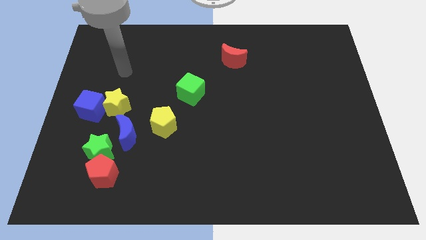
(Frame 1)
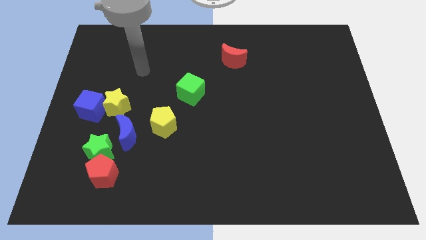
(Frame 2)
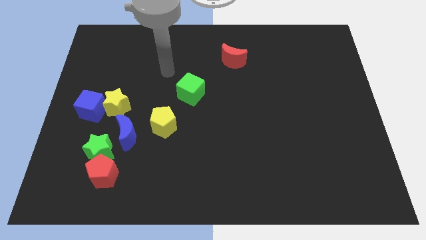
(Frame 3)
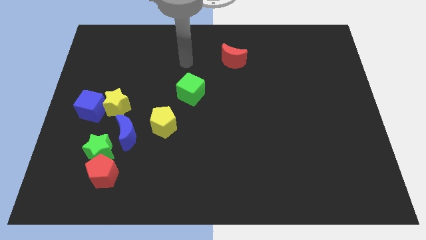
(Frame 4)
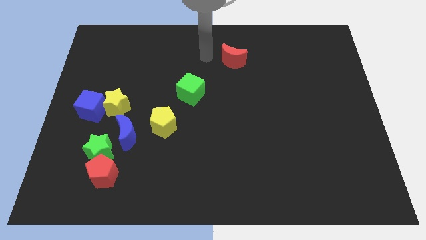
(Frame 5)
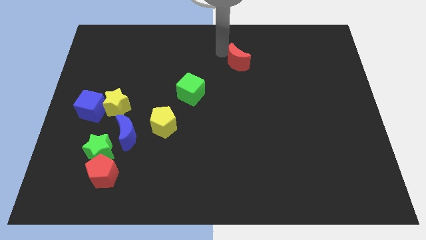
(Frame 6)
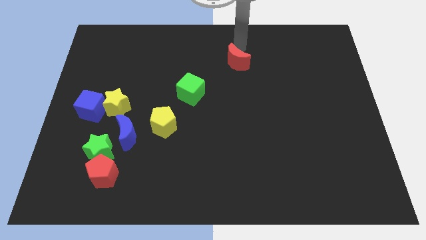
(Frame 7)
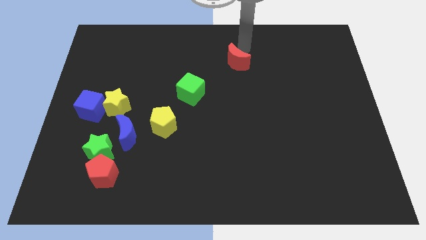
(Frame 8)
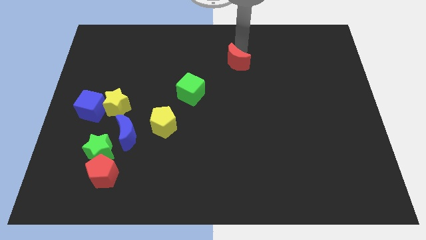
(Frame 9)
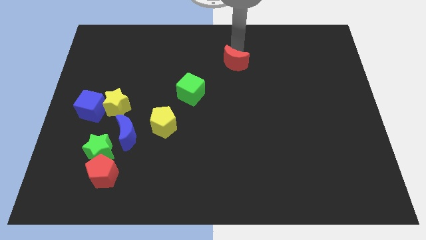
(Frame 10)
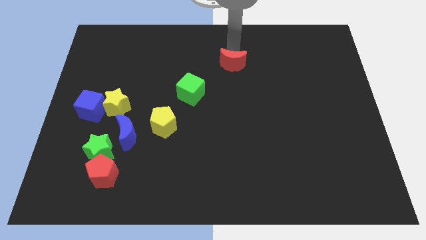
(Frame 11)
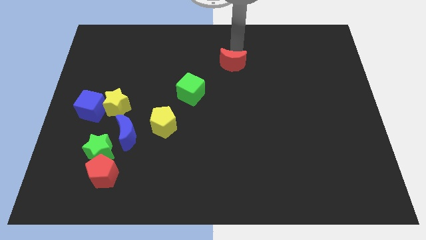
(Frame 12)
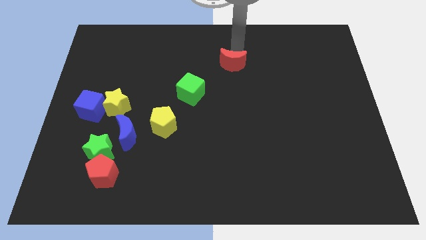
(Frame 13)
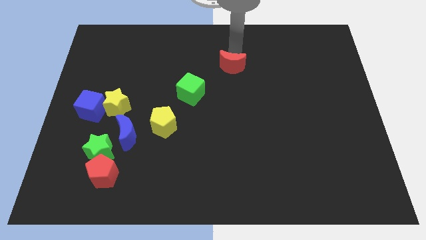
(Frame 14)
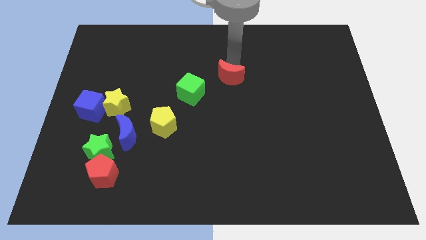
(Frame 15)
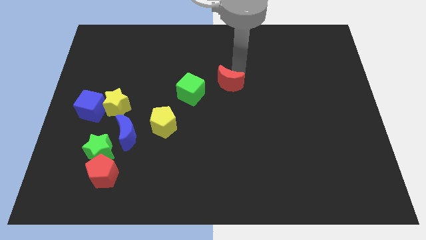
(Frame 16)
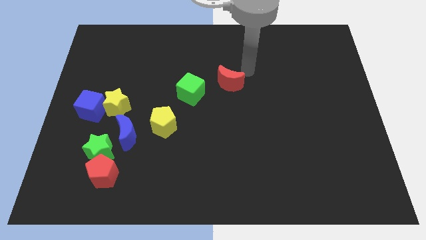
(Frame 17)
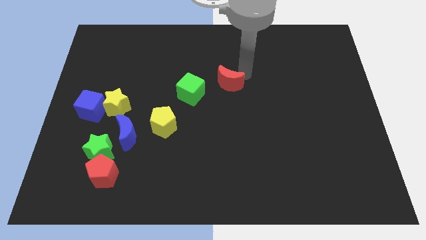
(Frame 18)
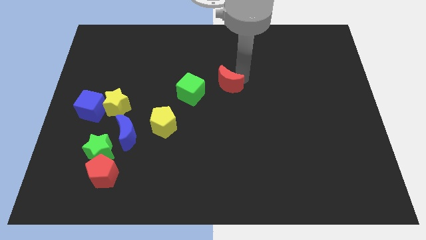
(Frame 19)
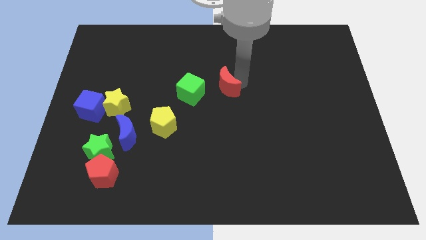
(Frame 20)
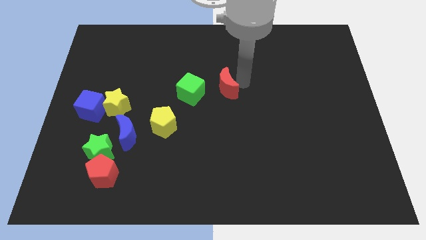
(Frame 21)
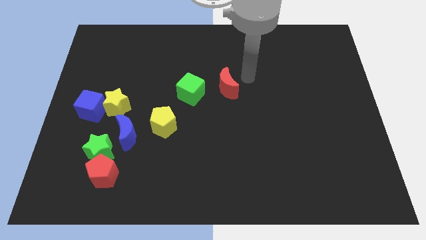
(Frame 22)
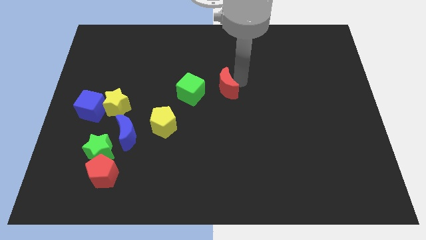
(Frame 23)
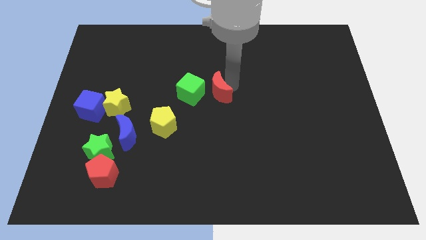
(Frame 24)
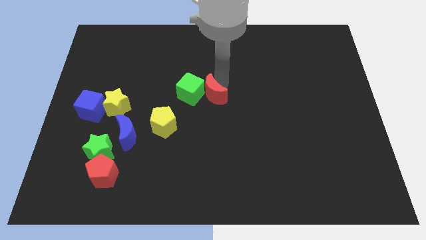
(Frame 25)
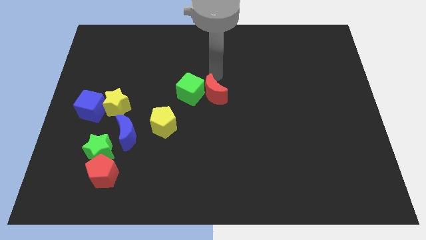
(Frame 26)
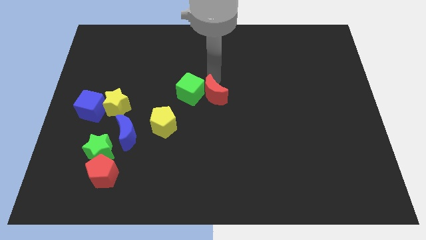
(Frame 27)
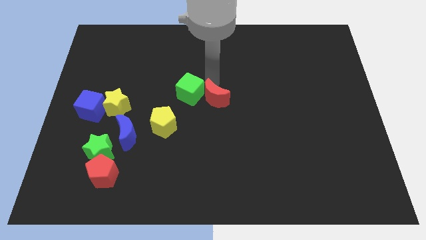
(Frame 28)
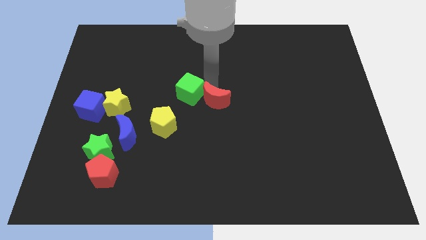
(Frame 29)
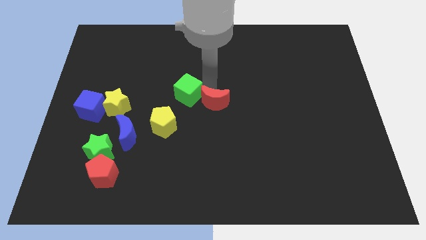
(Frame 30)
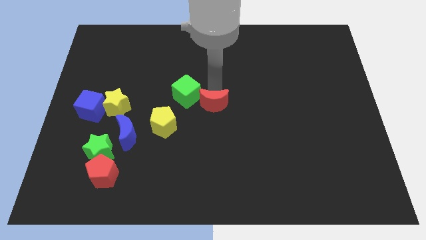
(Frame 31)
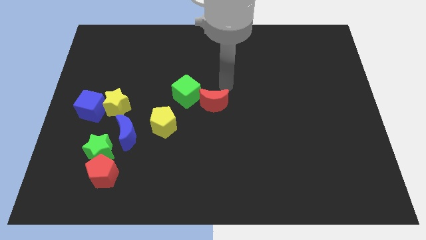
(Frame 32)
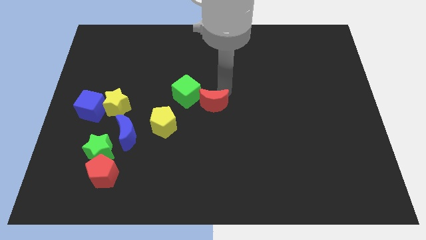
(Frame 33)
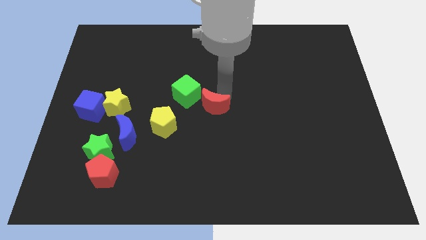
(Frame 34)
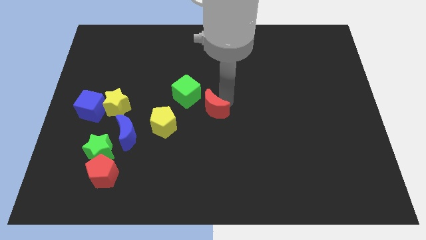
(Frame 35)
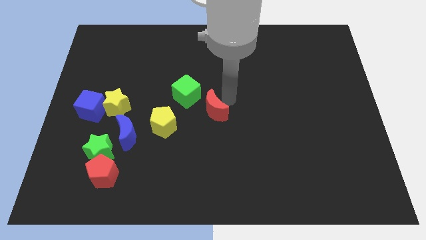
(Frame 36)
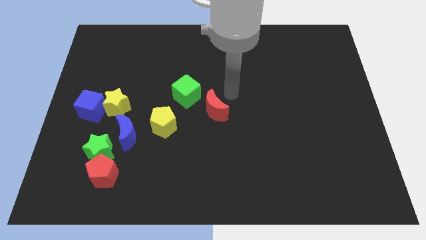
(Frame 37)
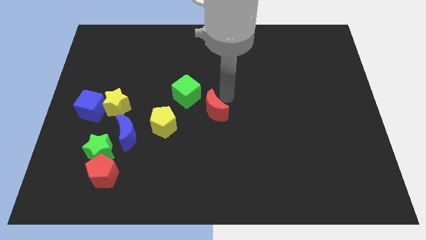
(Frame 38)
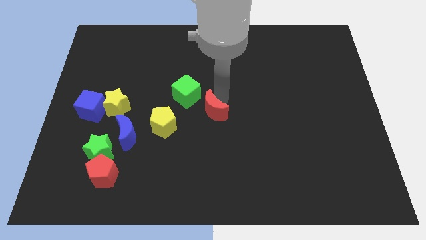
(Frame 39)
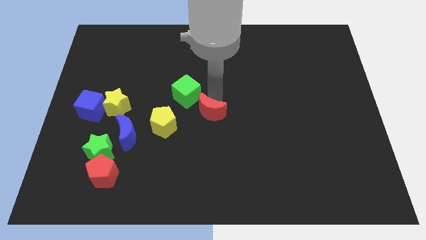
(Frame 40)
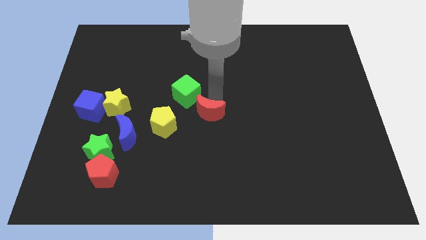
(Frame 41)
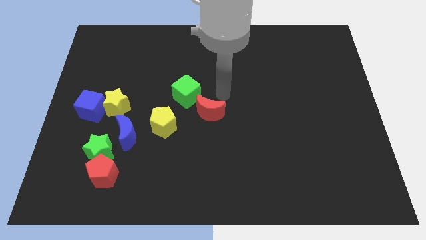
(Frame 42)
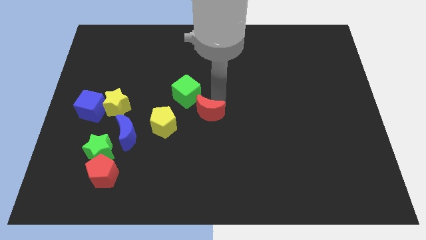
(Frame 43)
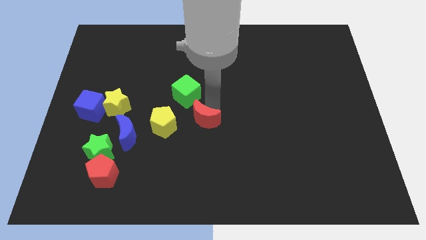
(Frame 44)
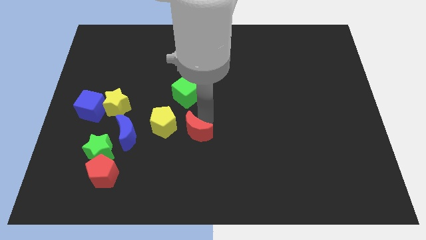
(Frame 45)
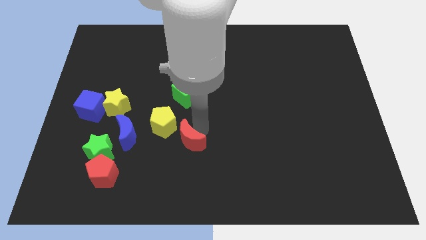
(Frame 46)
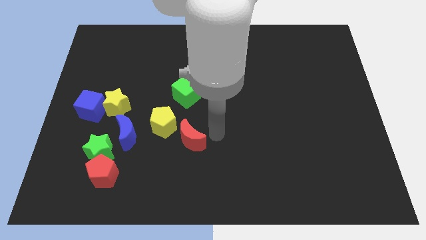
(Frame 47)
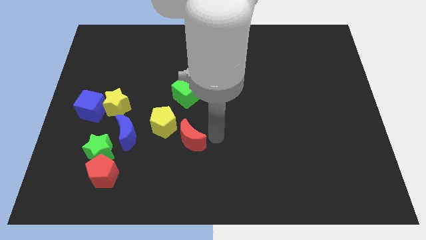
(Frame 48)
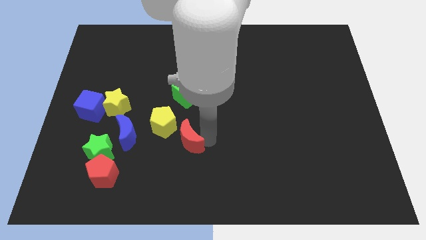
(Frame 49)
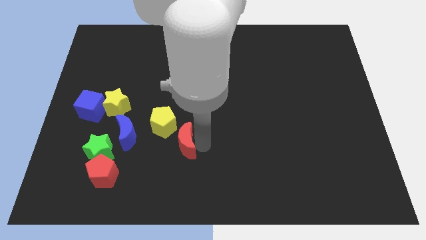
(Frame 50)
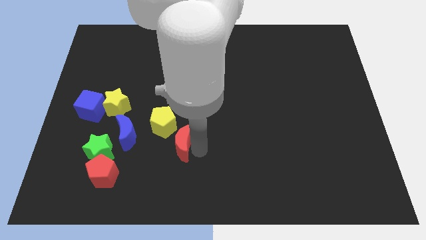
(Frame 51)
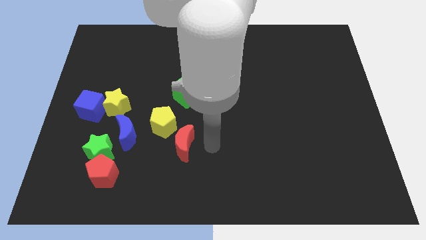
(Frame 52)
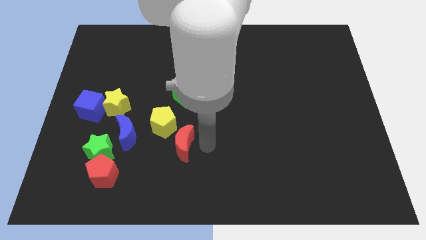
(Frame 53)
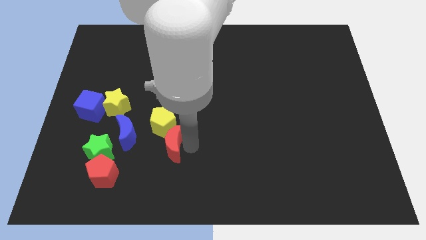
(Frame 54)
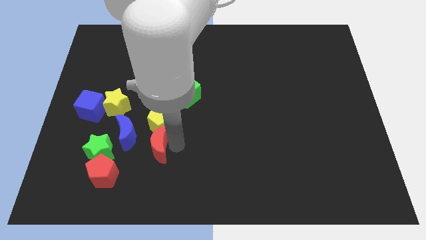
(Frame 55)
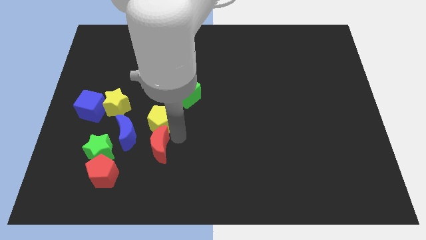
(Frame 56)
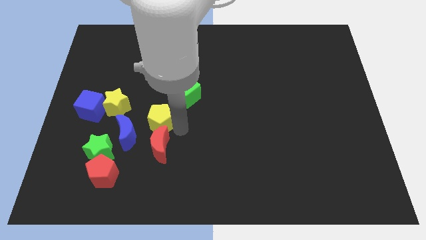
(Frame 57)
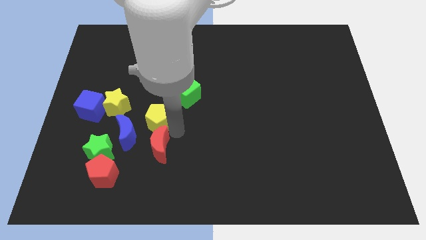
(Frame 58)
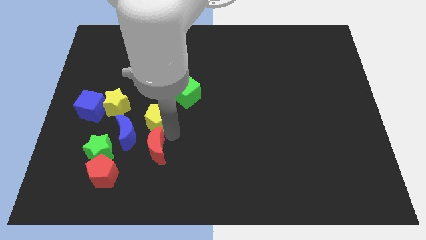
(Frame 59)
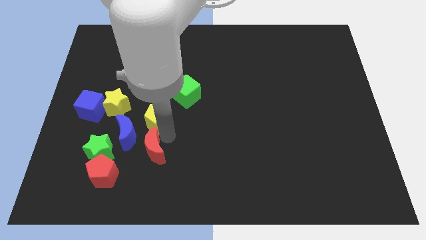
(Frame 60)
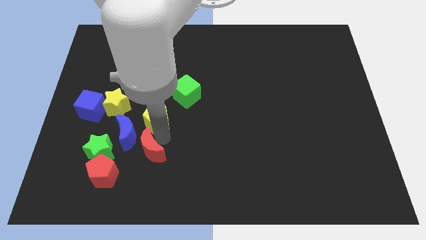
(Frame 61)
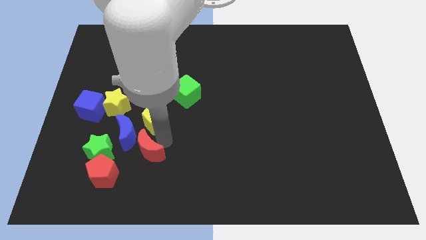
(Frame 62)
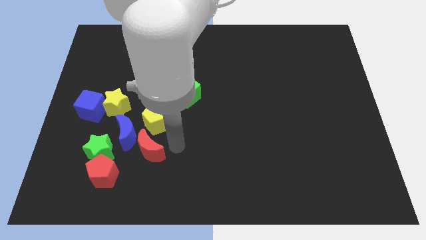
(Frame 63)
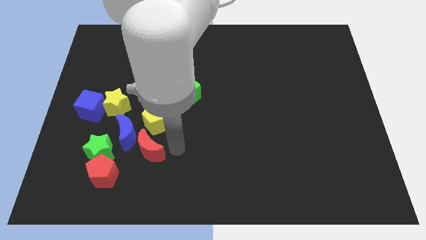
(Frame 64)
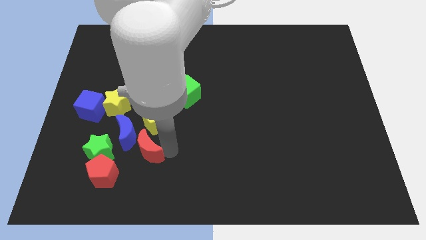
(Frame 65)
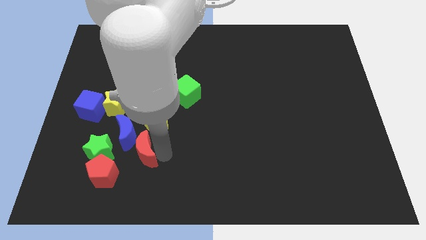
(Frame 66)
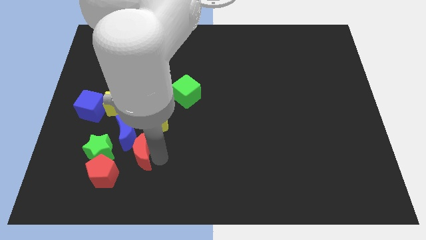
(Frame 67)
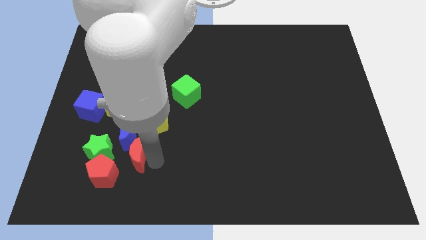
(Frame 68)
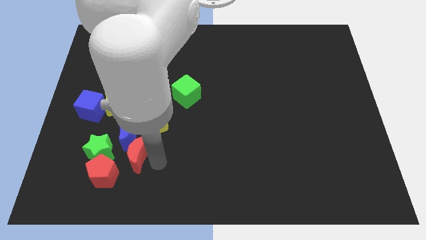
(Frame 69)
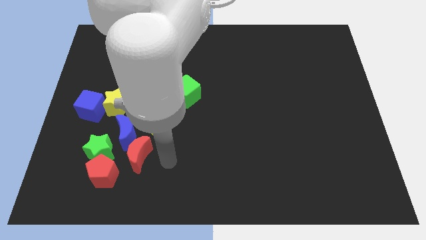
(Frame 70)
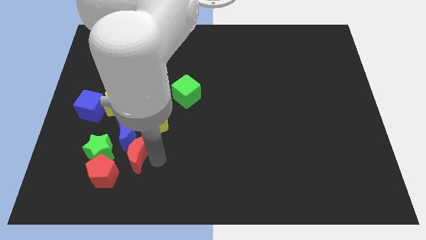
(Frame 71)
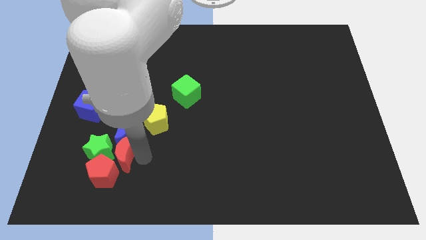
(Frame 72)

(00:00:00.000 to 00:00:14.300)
put the red moon close to the green star
